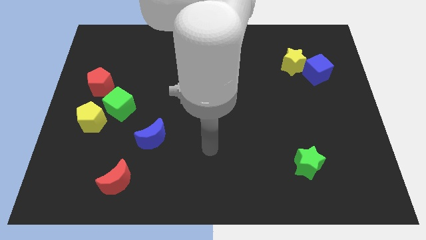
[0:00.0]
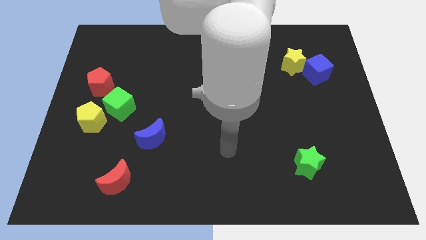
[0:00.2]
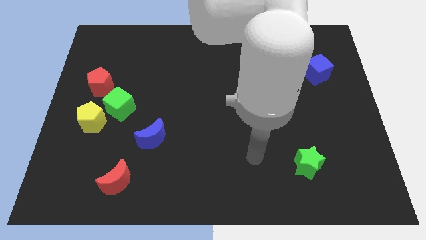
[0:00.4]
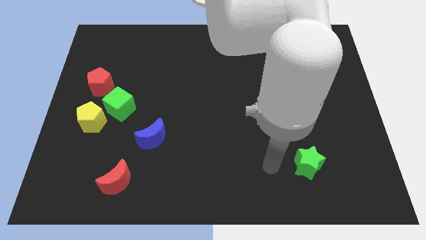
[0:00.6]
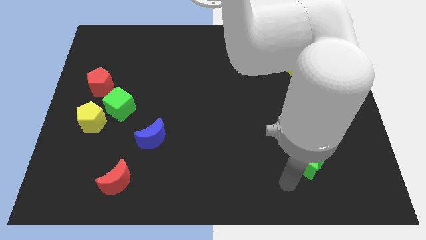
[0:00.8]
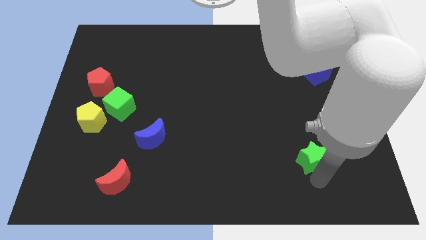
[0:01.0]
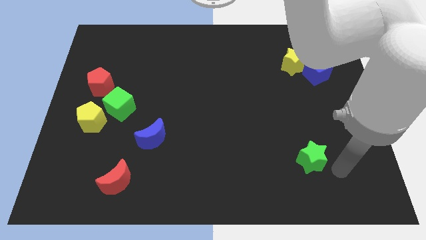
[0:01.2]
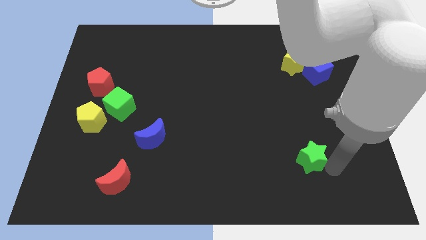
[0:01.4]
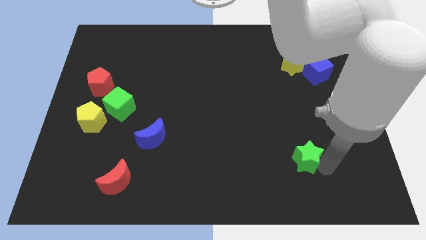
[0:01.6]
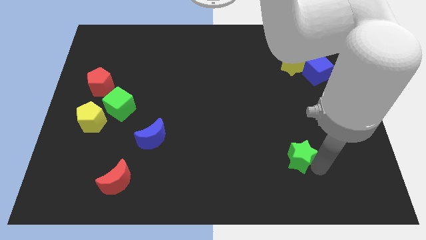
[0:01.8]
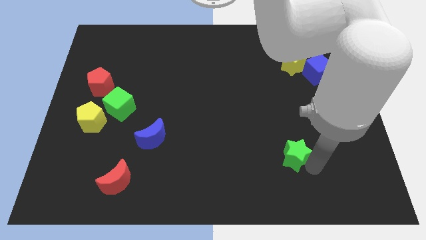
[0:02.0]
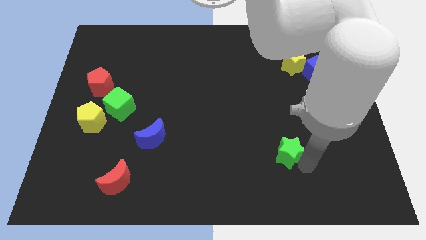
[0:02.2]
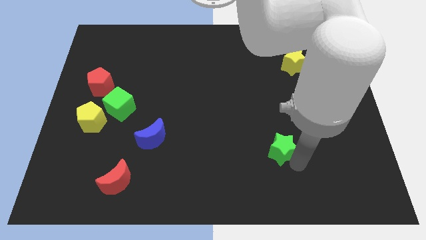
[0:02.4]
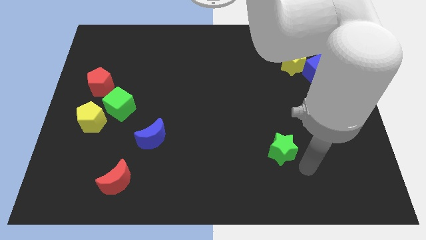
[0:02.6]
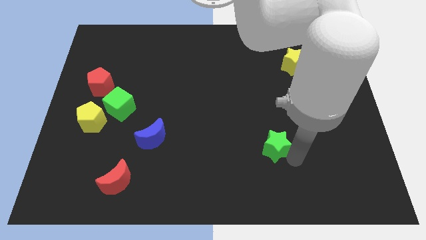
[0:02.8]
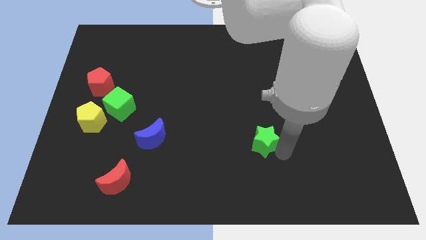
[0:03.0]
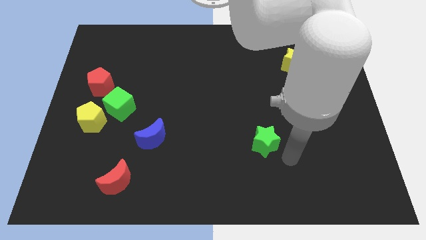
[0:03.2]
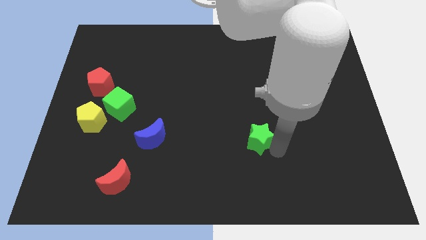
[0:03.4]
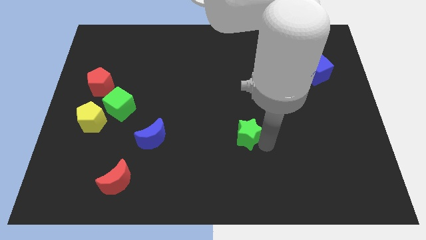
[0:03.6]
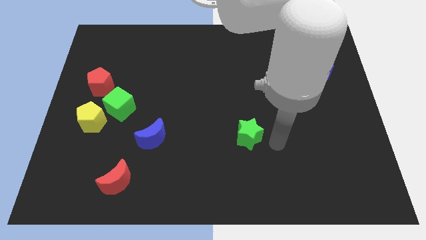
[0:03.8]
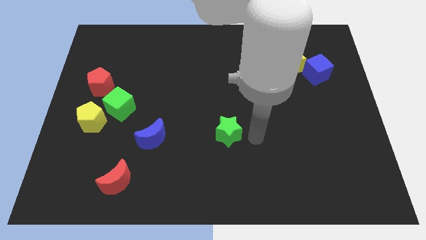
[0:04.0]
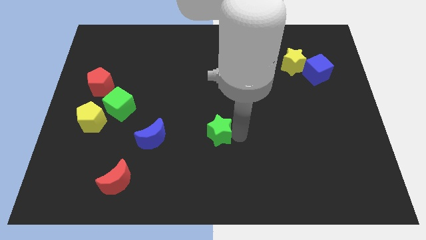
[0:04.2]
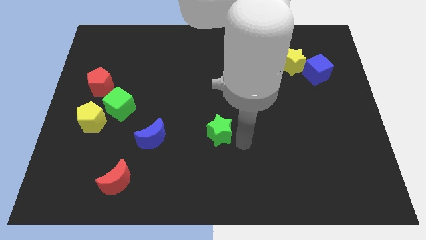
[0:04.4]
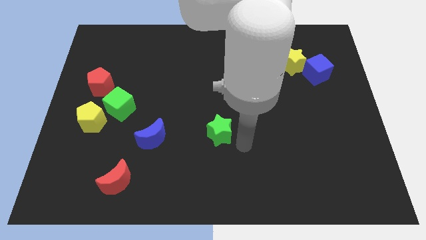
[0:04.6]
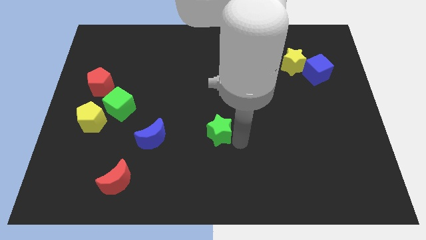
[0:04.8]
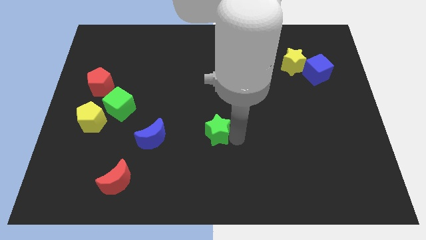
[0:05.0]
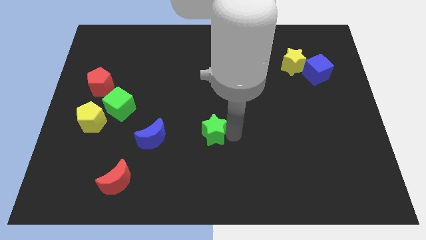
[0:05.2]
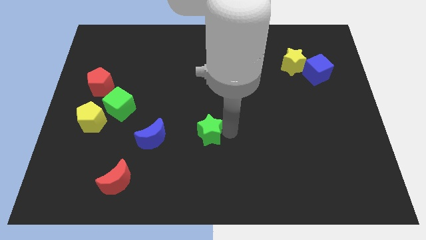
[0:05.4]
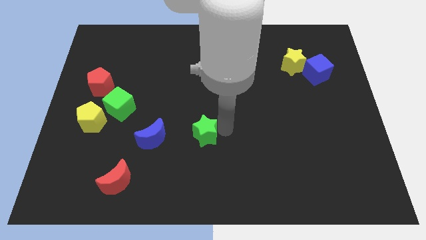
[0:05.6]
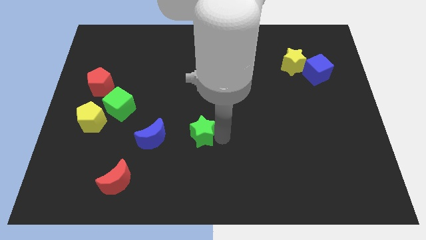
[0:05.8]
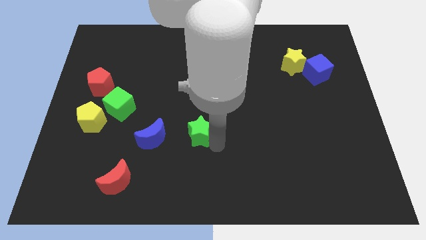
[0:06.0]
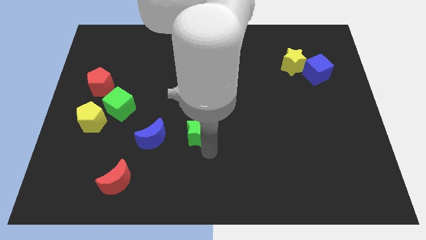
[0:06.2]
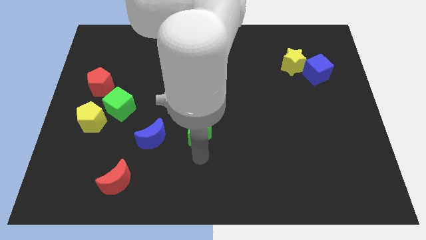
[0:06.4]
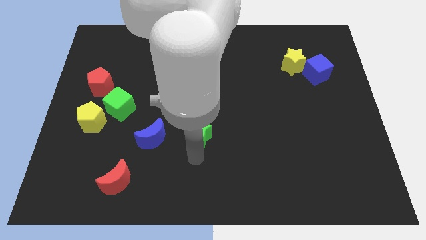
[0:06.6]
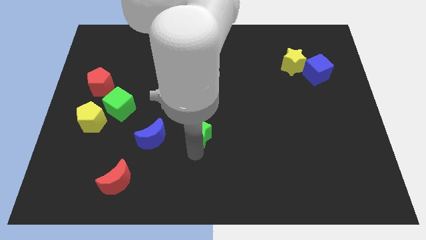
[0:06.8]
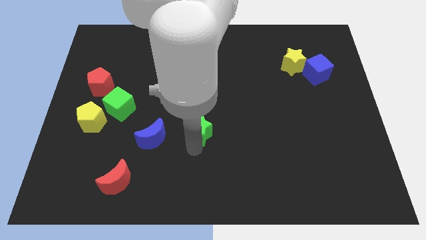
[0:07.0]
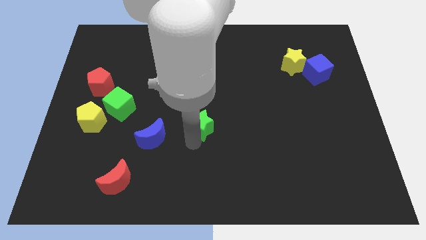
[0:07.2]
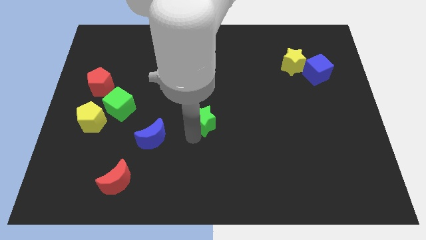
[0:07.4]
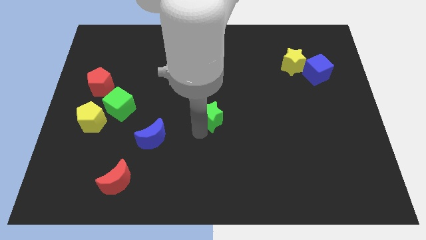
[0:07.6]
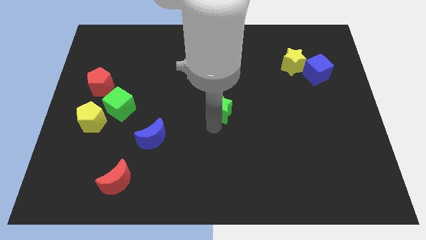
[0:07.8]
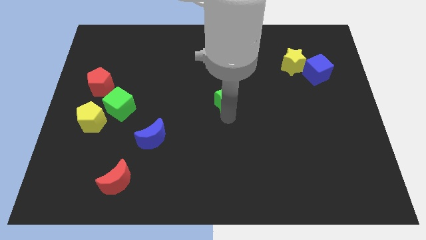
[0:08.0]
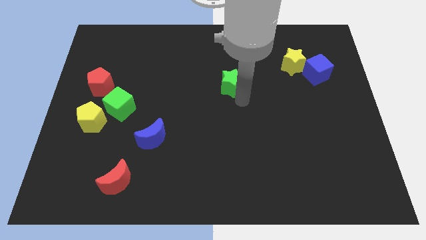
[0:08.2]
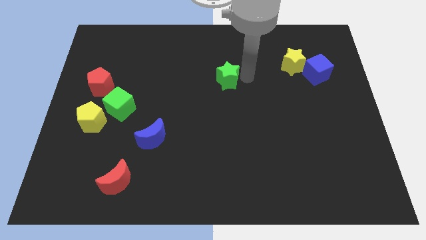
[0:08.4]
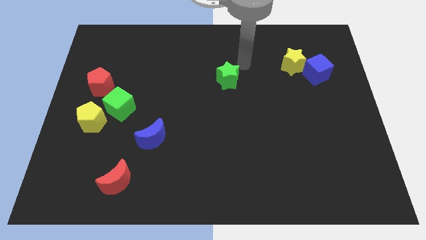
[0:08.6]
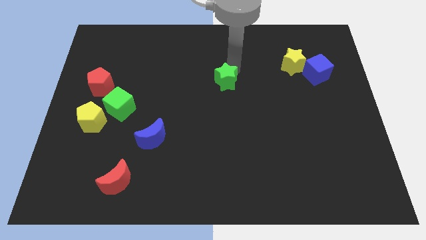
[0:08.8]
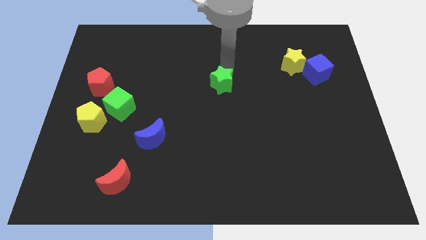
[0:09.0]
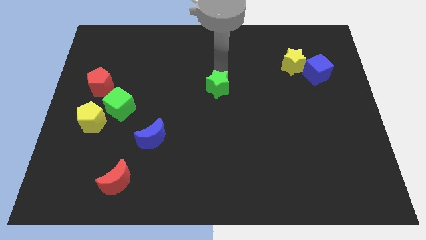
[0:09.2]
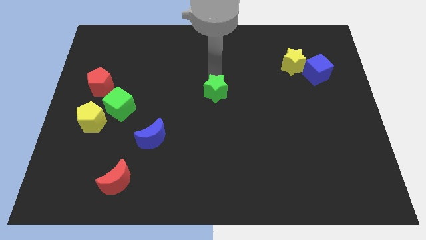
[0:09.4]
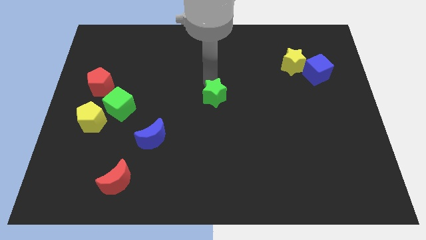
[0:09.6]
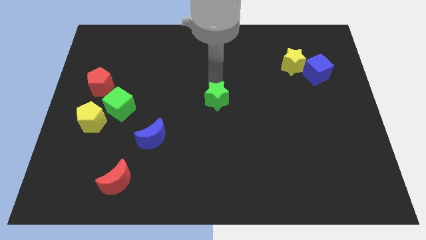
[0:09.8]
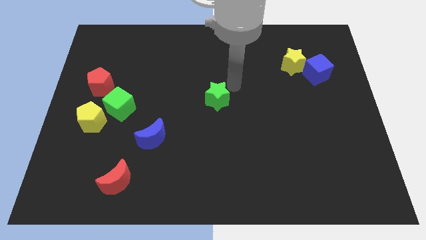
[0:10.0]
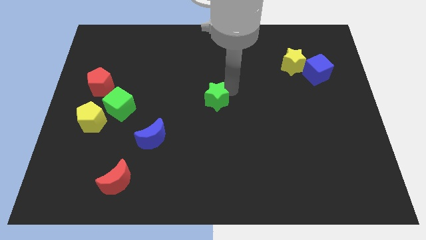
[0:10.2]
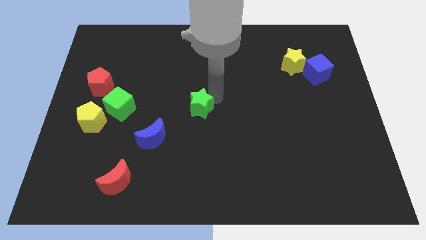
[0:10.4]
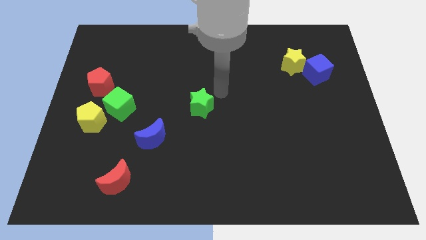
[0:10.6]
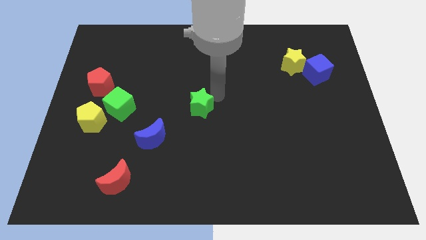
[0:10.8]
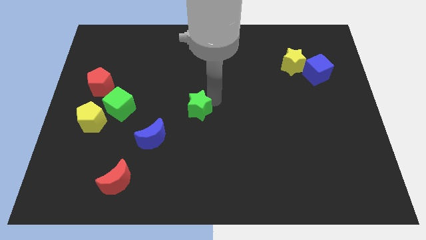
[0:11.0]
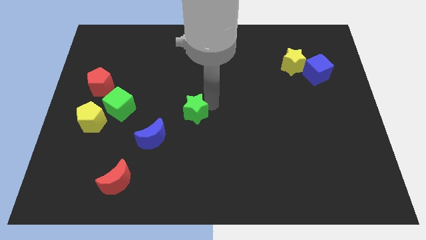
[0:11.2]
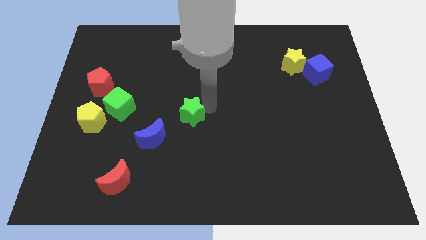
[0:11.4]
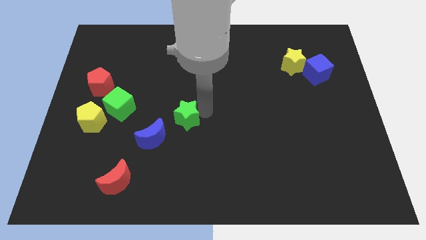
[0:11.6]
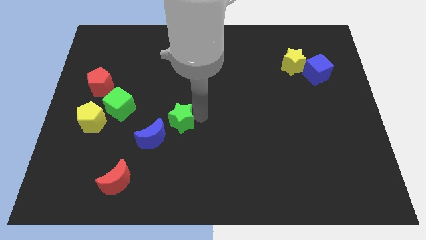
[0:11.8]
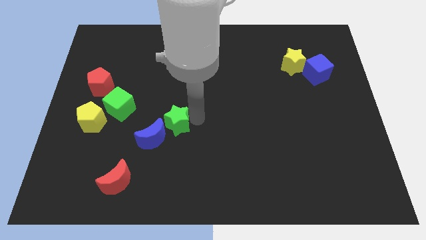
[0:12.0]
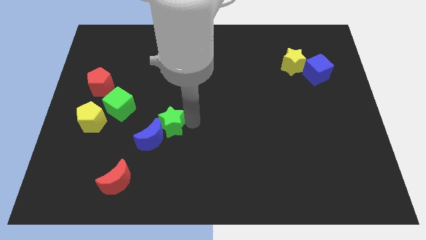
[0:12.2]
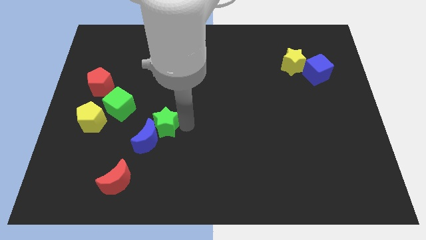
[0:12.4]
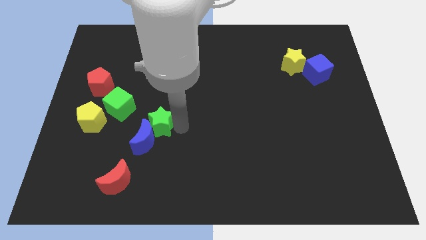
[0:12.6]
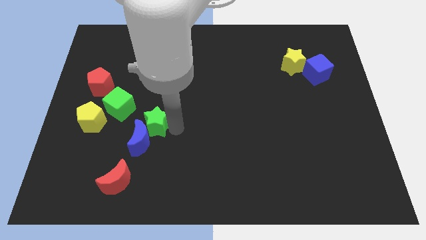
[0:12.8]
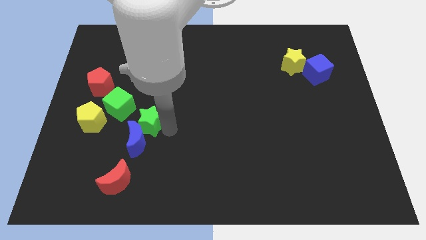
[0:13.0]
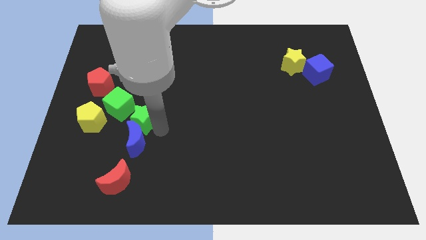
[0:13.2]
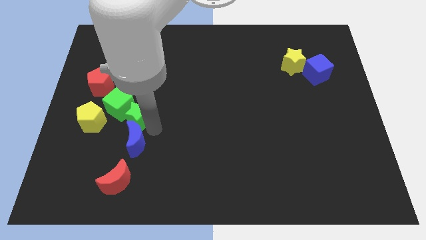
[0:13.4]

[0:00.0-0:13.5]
put the green star to the green cube

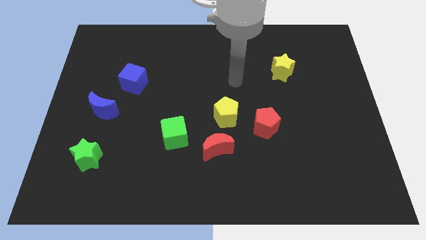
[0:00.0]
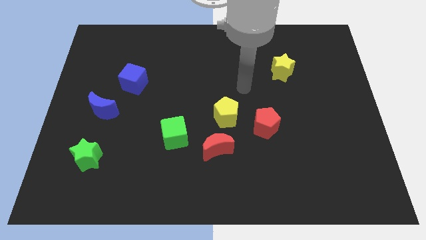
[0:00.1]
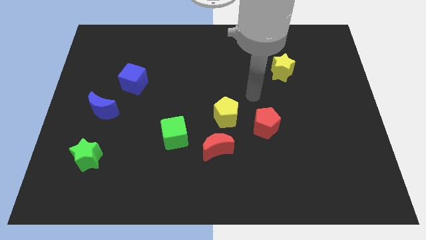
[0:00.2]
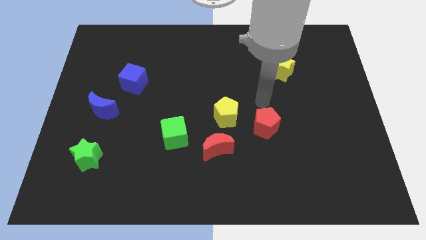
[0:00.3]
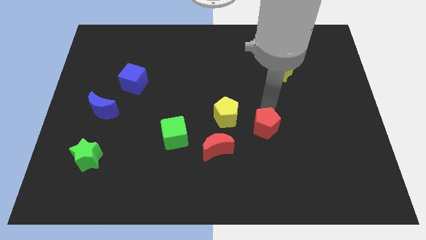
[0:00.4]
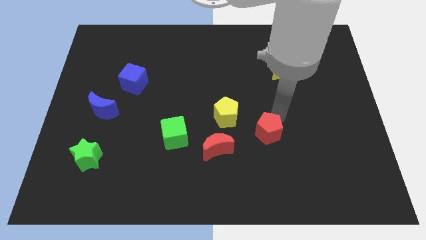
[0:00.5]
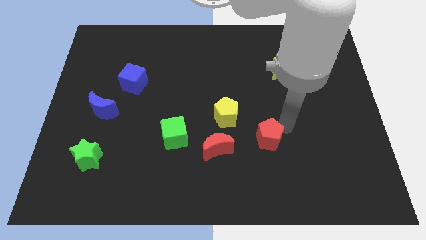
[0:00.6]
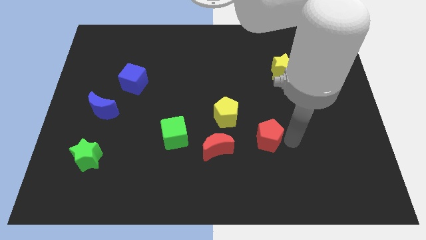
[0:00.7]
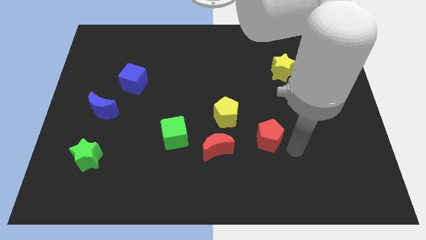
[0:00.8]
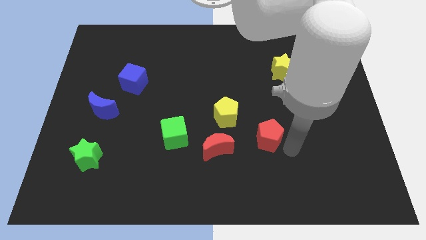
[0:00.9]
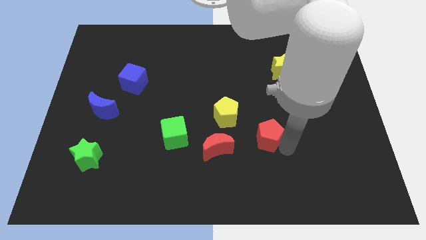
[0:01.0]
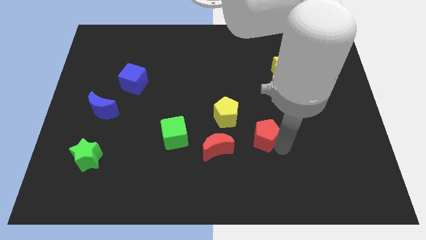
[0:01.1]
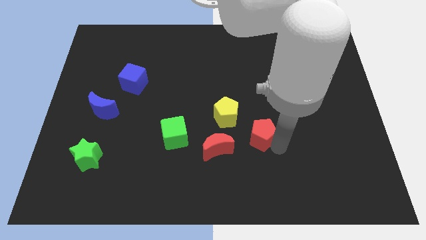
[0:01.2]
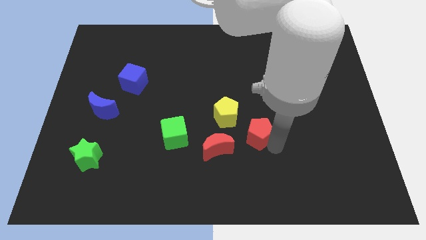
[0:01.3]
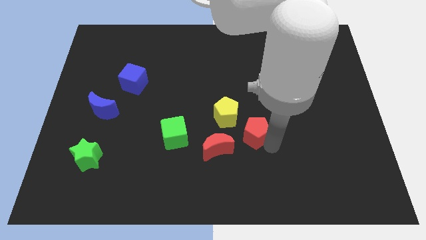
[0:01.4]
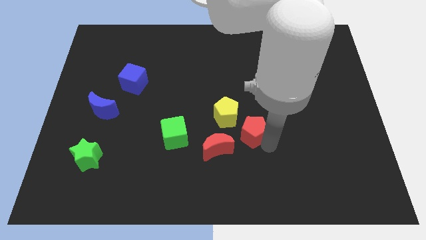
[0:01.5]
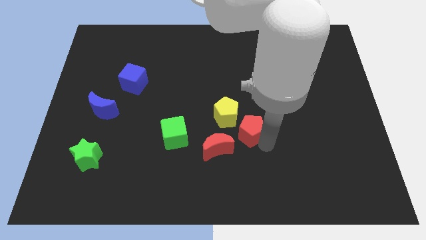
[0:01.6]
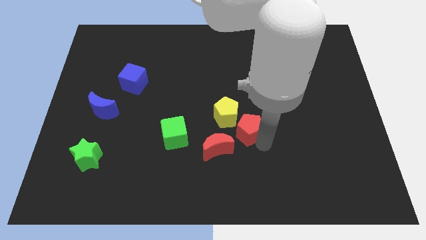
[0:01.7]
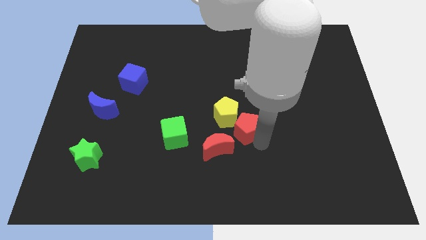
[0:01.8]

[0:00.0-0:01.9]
move the red pentagon close to the yellow pentagon
